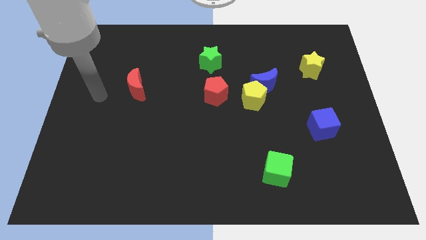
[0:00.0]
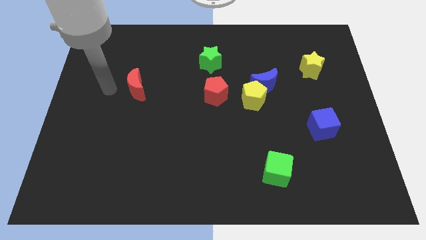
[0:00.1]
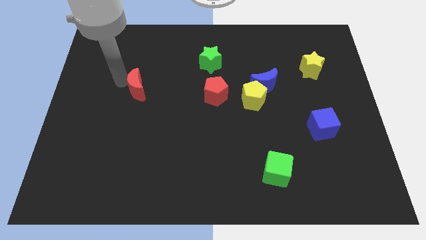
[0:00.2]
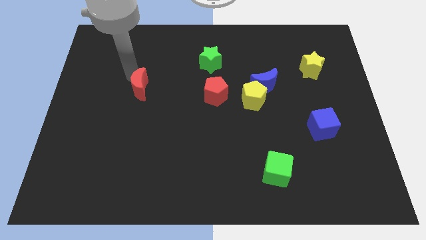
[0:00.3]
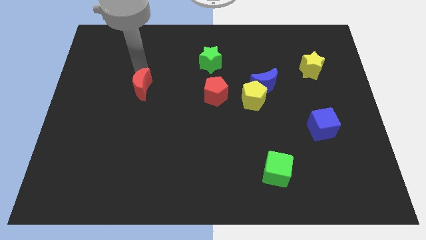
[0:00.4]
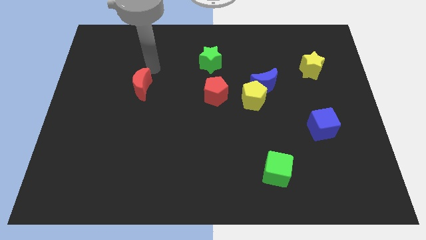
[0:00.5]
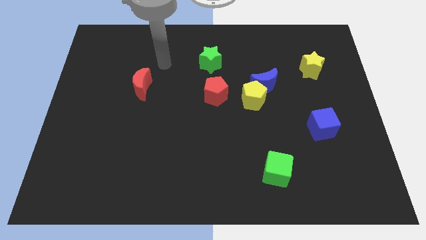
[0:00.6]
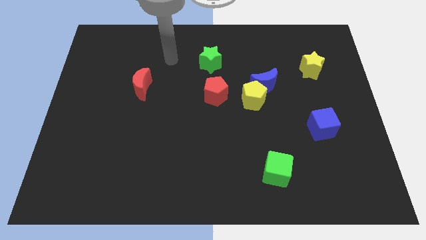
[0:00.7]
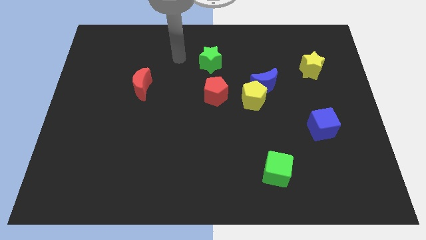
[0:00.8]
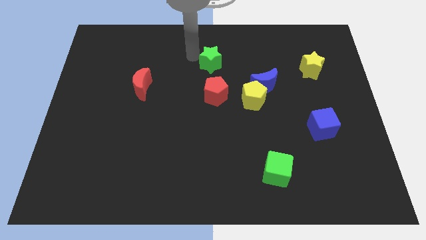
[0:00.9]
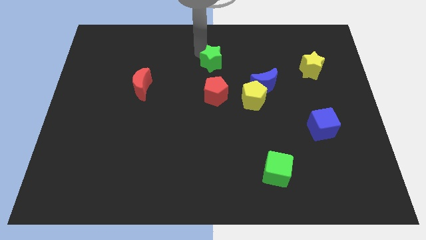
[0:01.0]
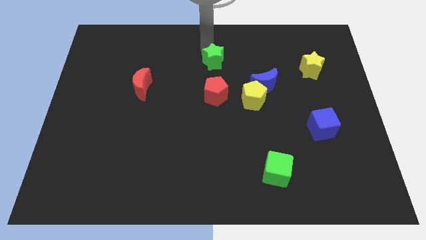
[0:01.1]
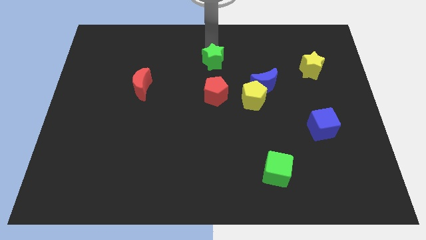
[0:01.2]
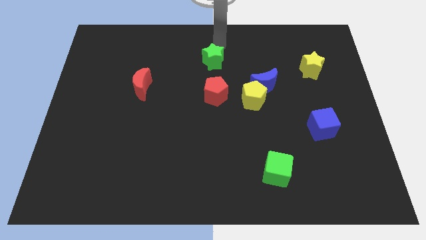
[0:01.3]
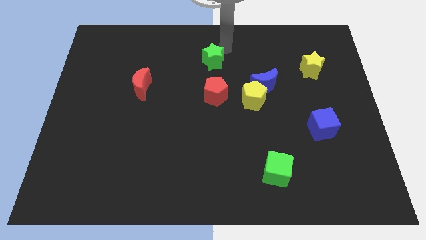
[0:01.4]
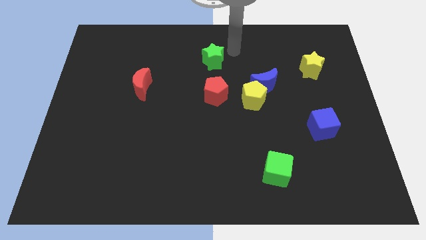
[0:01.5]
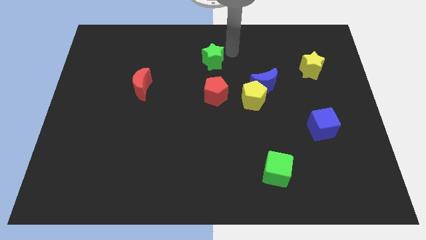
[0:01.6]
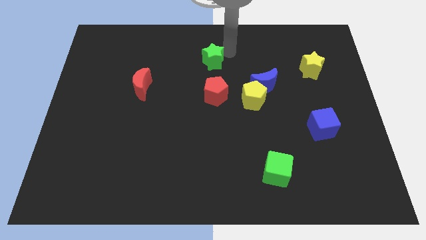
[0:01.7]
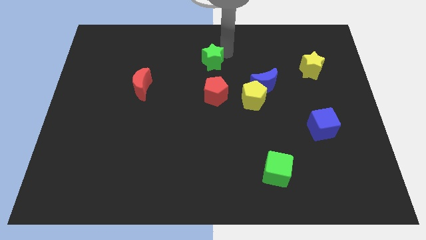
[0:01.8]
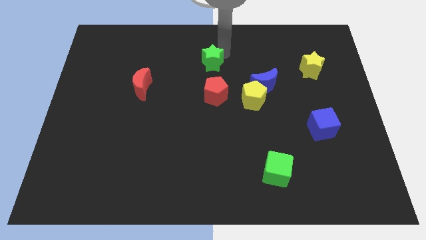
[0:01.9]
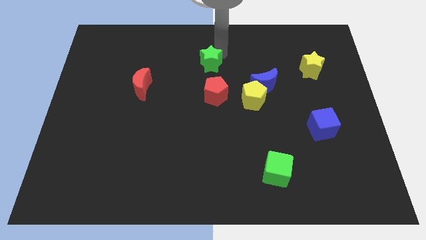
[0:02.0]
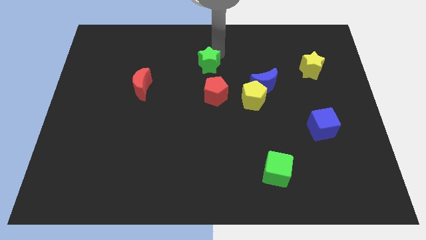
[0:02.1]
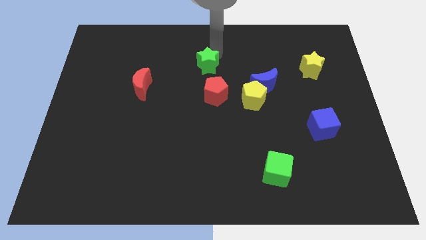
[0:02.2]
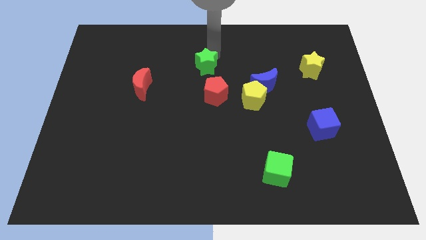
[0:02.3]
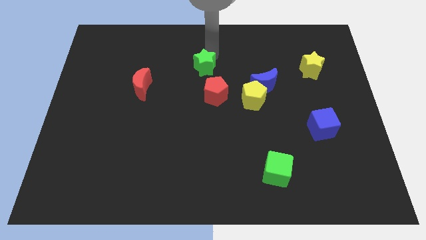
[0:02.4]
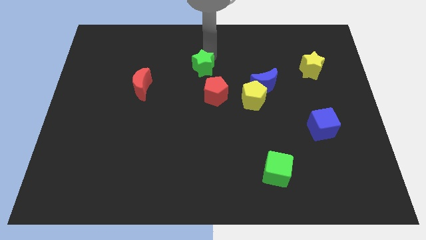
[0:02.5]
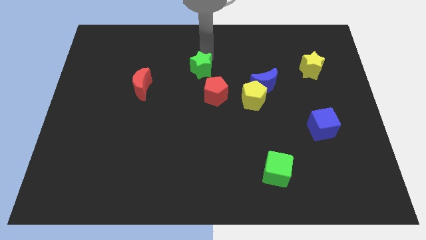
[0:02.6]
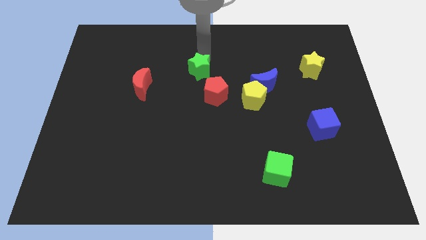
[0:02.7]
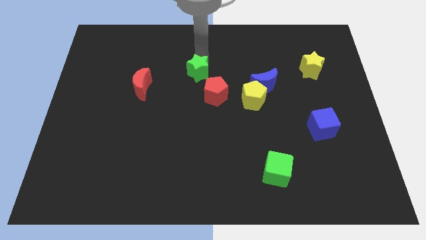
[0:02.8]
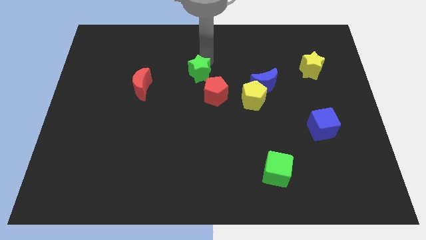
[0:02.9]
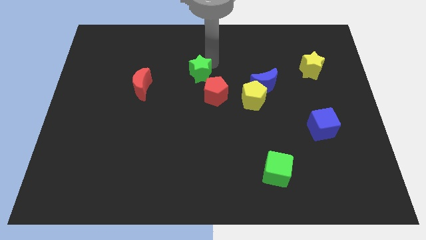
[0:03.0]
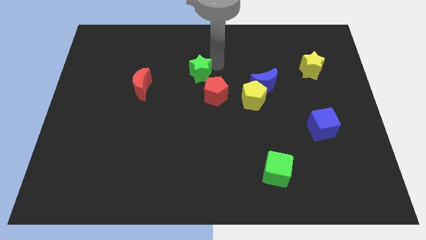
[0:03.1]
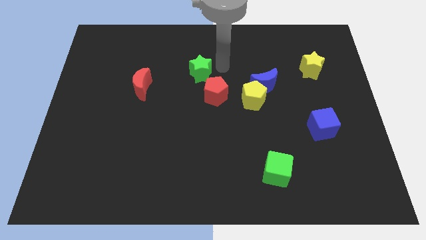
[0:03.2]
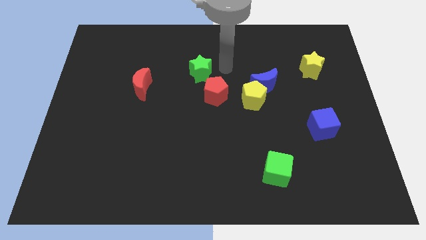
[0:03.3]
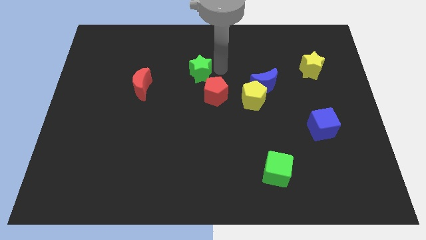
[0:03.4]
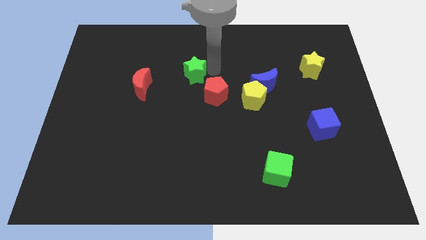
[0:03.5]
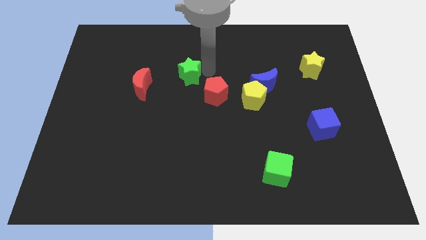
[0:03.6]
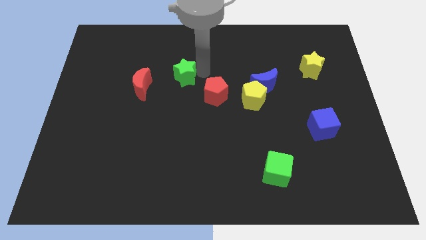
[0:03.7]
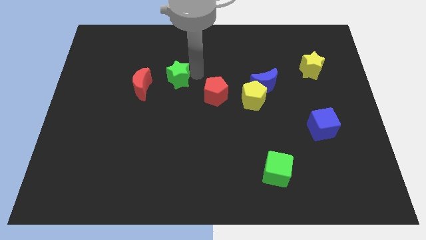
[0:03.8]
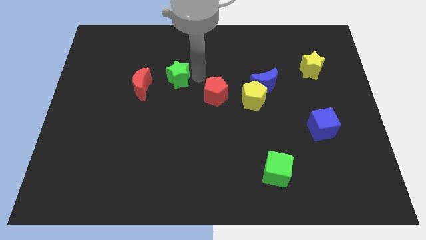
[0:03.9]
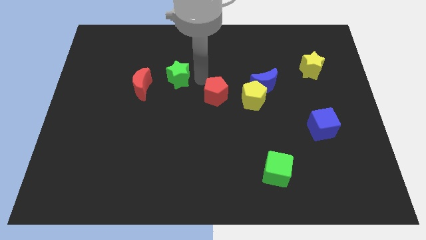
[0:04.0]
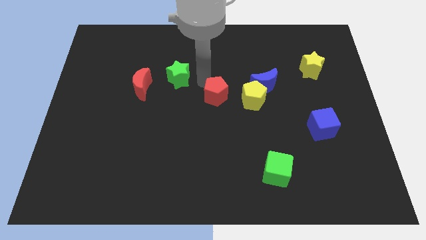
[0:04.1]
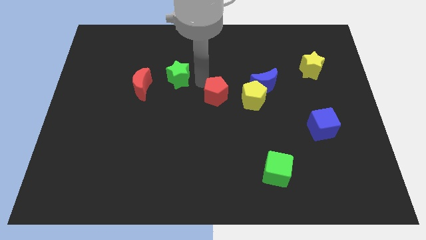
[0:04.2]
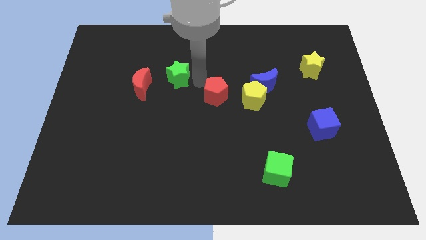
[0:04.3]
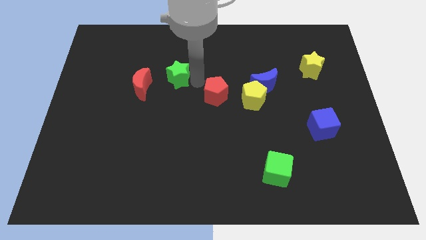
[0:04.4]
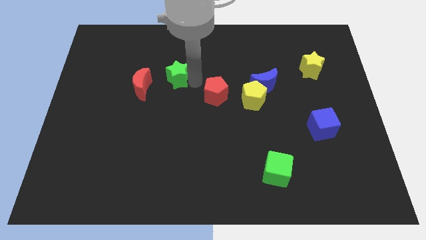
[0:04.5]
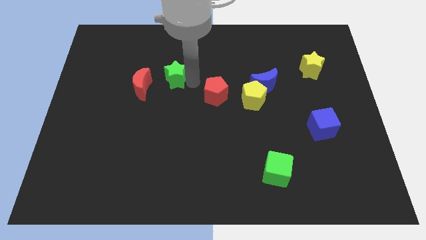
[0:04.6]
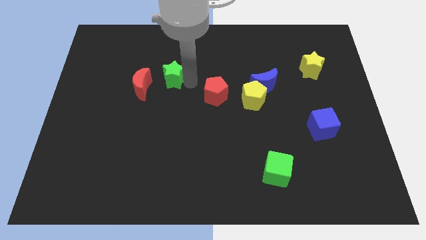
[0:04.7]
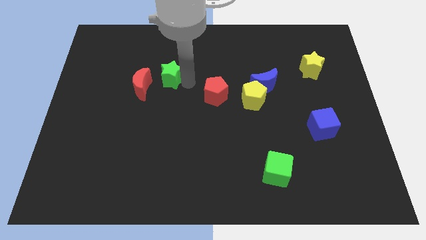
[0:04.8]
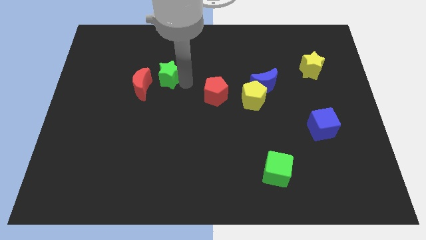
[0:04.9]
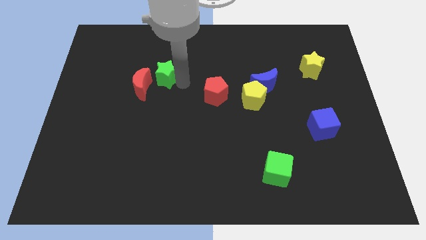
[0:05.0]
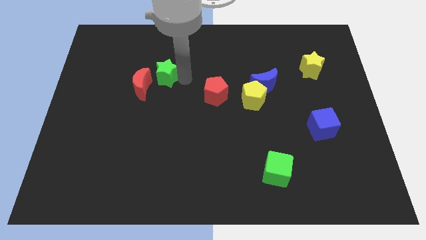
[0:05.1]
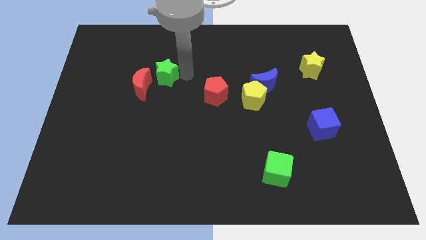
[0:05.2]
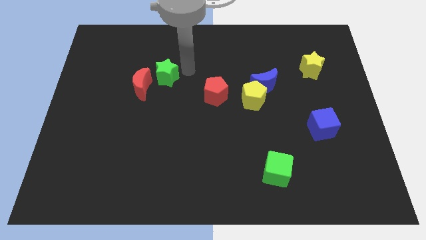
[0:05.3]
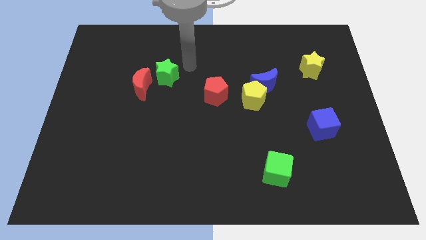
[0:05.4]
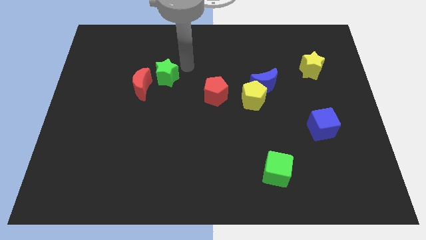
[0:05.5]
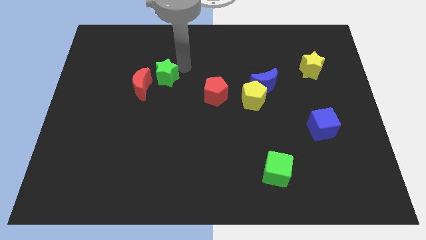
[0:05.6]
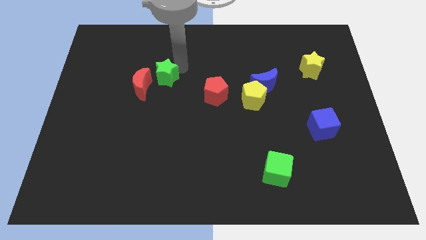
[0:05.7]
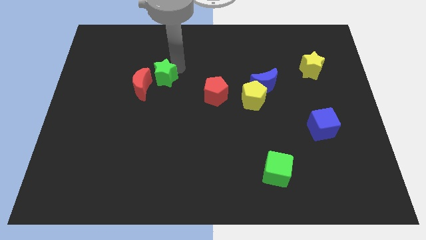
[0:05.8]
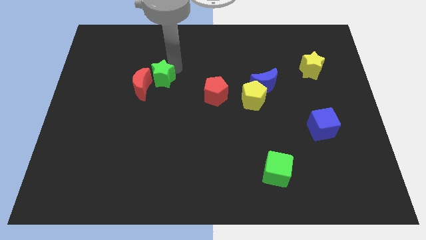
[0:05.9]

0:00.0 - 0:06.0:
put the green star to the red moon

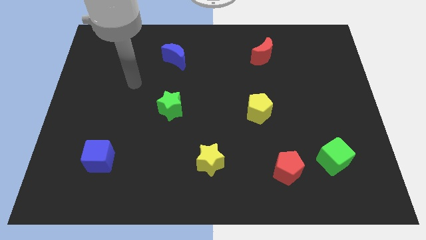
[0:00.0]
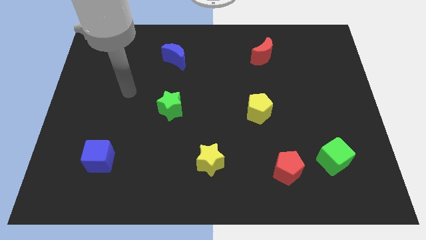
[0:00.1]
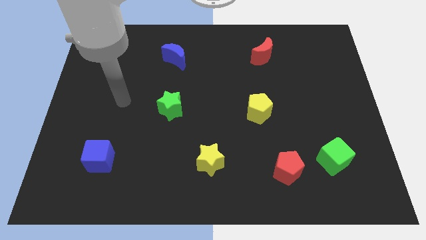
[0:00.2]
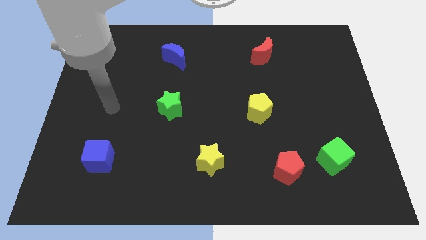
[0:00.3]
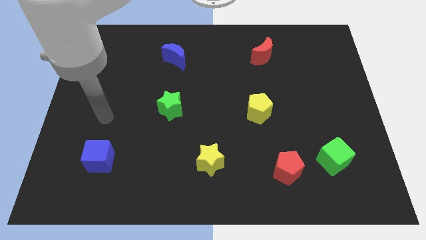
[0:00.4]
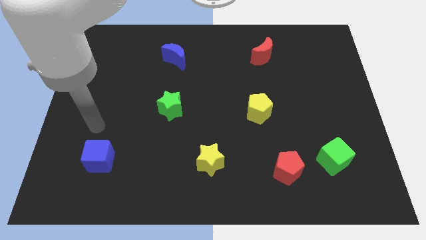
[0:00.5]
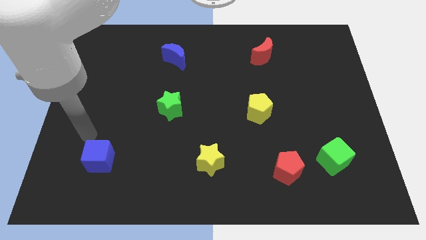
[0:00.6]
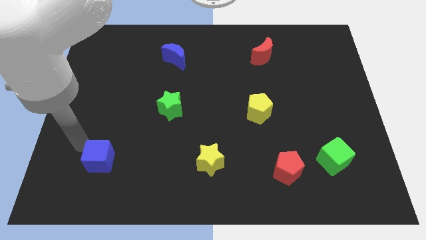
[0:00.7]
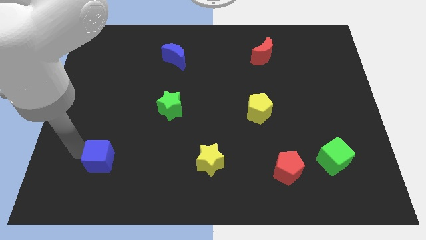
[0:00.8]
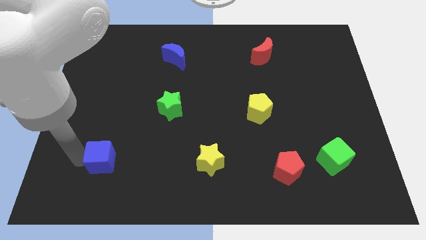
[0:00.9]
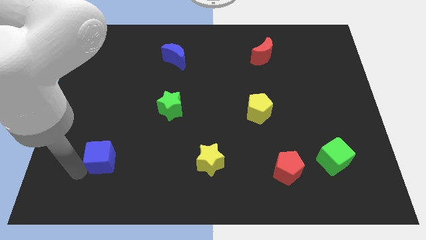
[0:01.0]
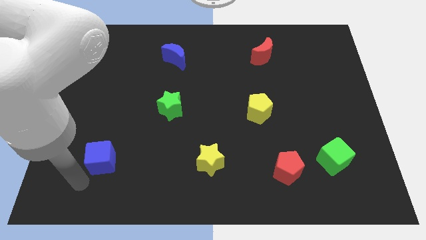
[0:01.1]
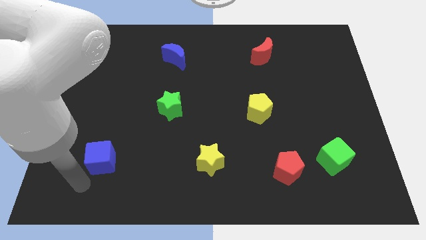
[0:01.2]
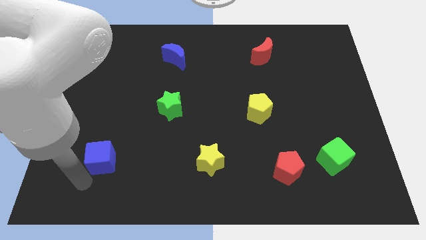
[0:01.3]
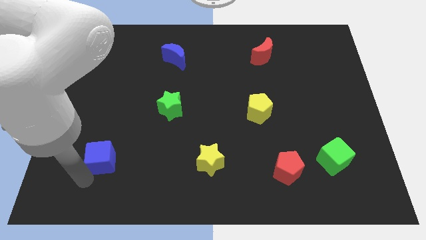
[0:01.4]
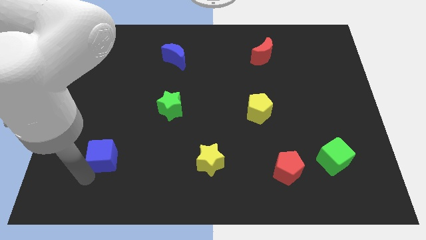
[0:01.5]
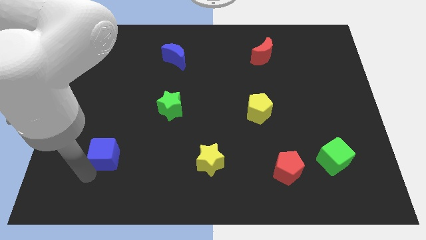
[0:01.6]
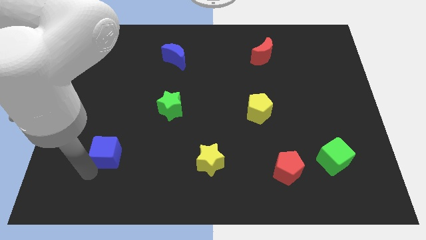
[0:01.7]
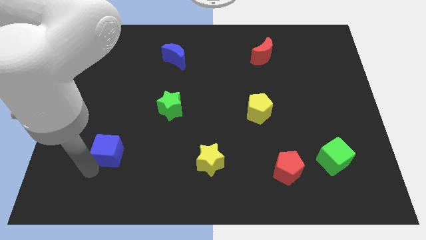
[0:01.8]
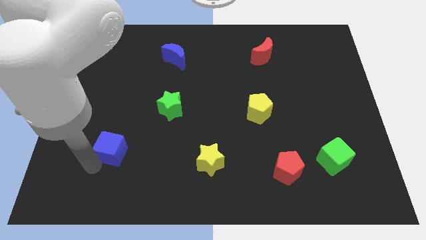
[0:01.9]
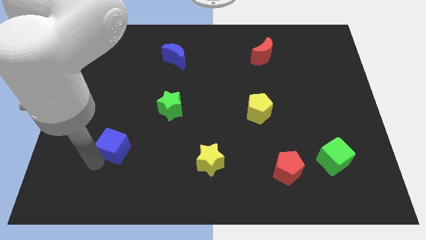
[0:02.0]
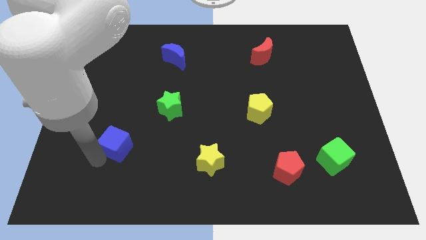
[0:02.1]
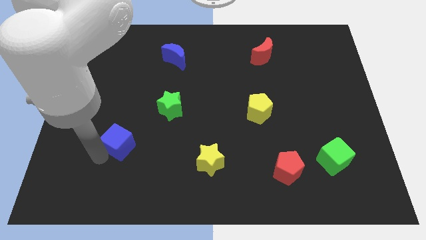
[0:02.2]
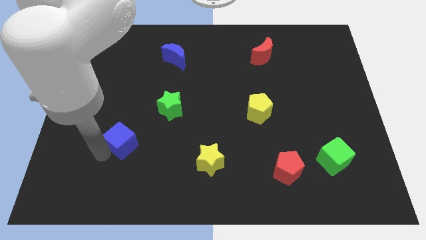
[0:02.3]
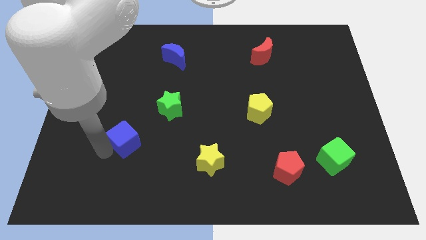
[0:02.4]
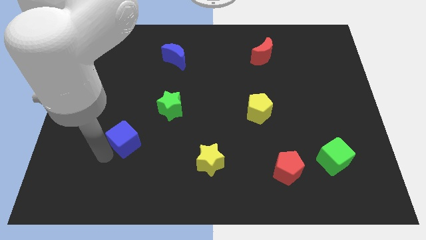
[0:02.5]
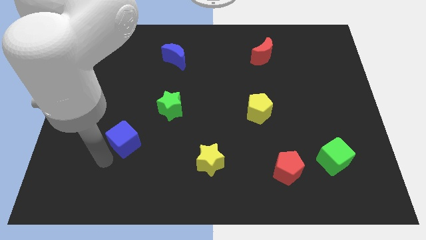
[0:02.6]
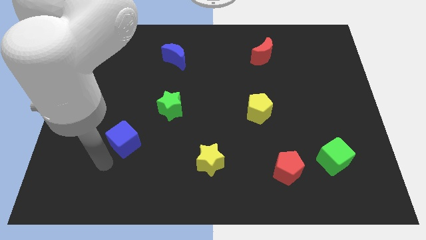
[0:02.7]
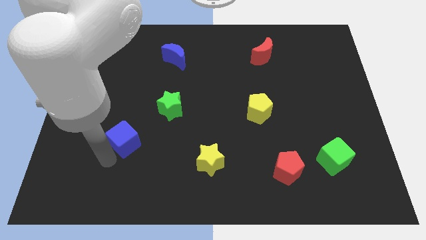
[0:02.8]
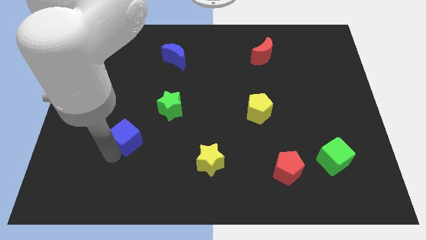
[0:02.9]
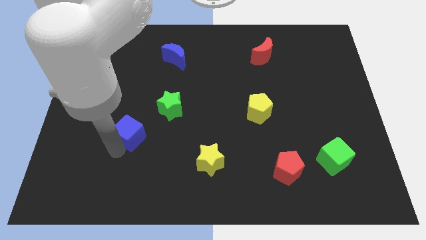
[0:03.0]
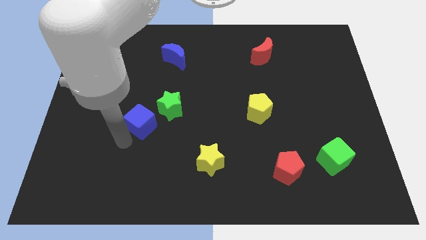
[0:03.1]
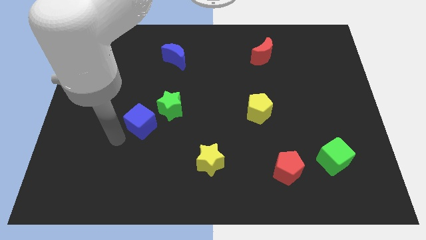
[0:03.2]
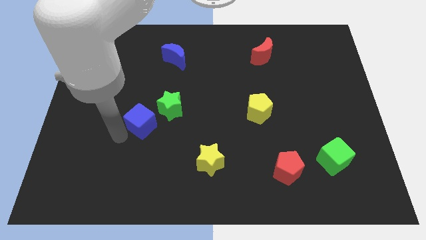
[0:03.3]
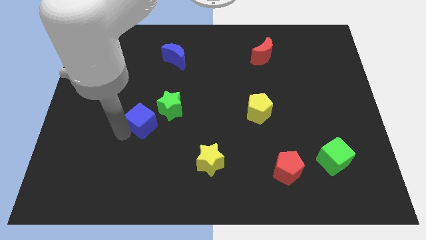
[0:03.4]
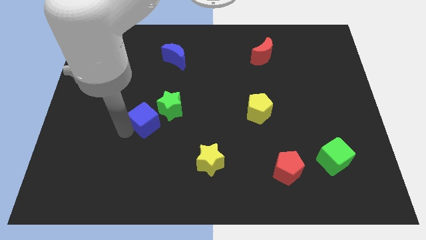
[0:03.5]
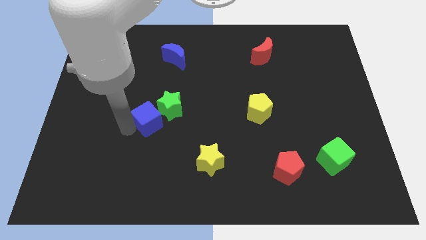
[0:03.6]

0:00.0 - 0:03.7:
put the blue cube towards the green star
